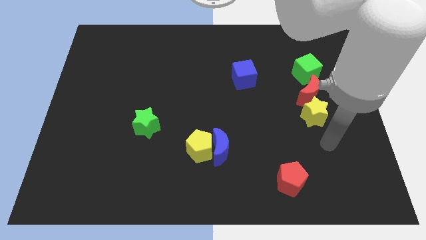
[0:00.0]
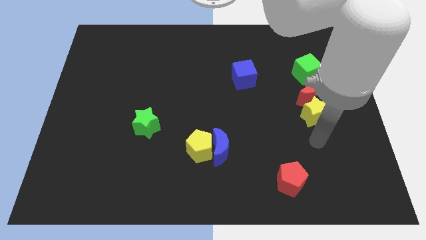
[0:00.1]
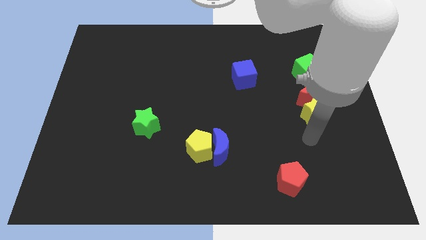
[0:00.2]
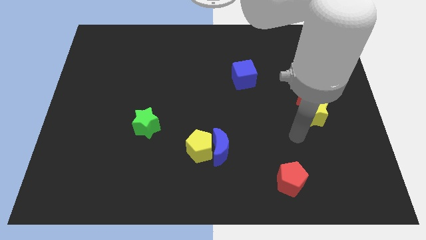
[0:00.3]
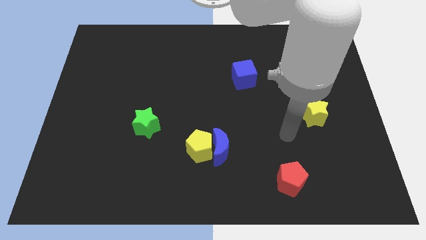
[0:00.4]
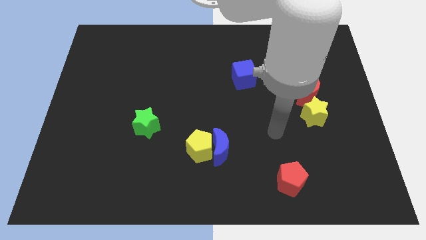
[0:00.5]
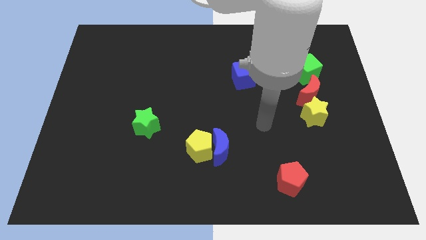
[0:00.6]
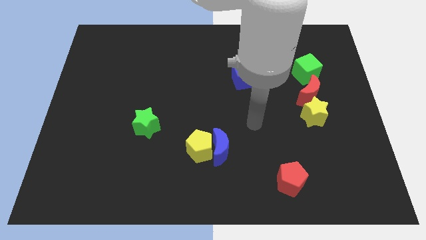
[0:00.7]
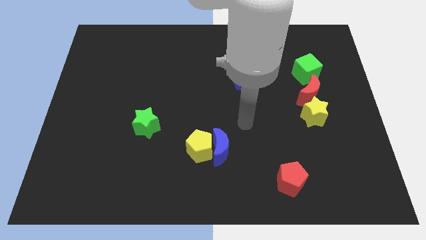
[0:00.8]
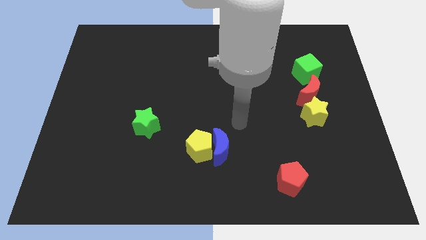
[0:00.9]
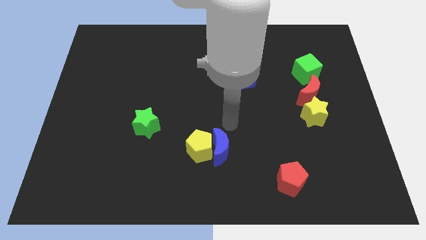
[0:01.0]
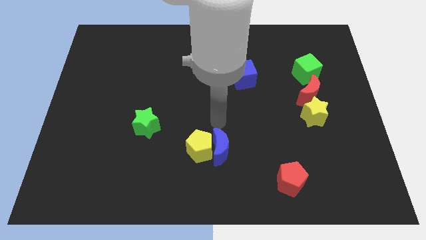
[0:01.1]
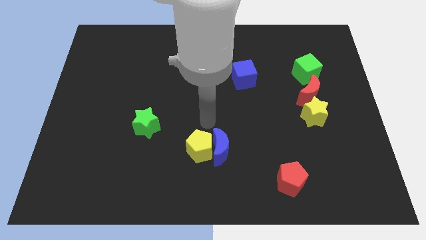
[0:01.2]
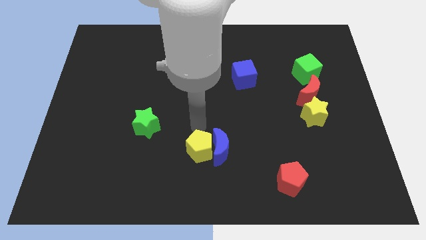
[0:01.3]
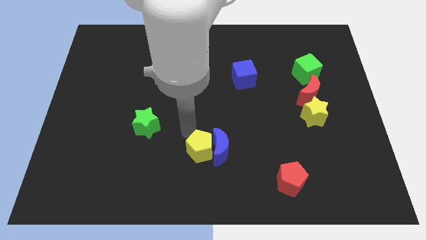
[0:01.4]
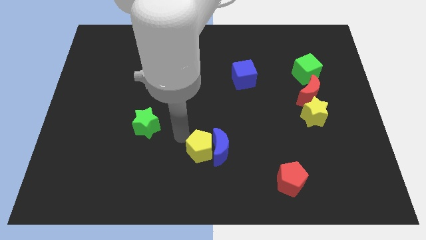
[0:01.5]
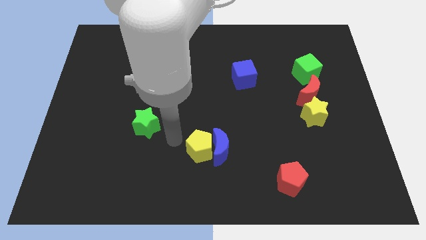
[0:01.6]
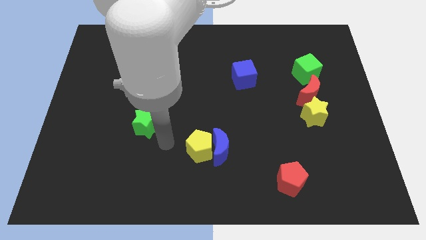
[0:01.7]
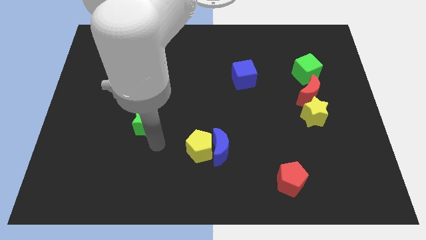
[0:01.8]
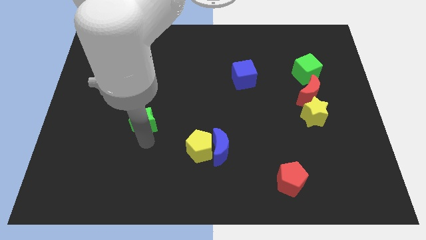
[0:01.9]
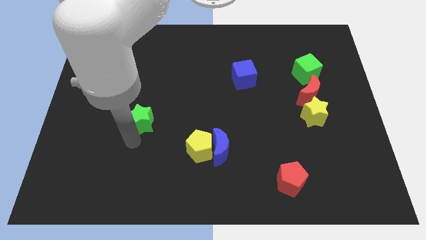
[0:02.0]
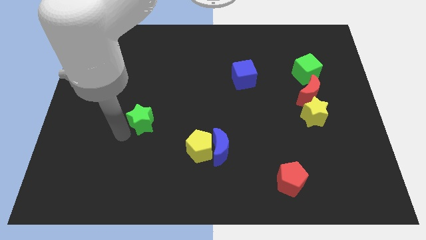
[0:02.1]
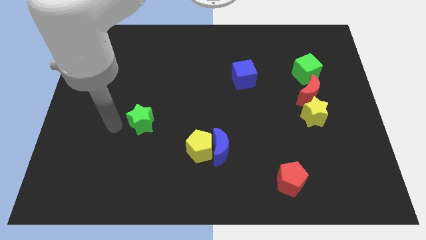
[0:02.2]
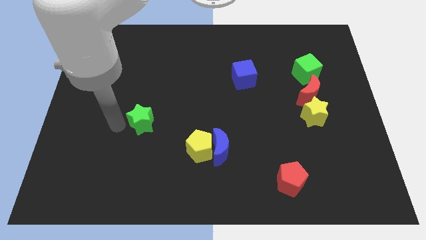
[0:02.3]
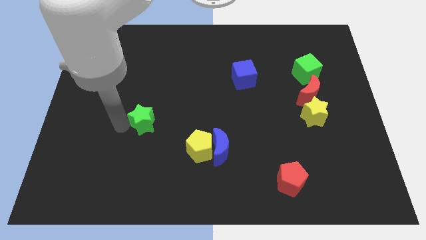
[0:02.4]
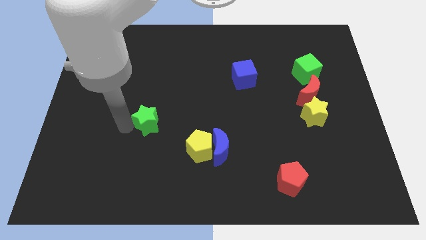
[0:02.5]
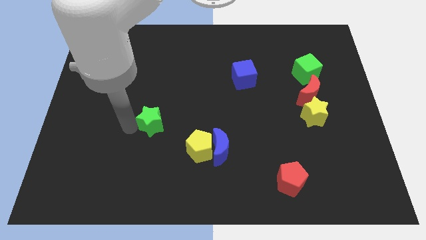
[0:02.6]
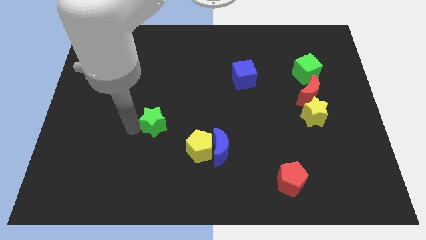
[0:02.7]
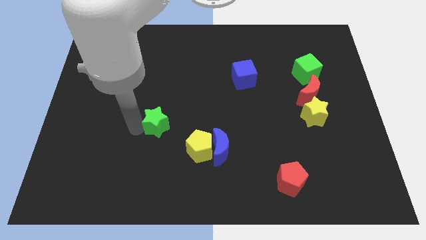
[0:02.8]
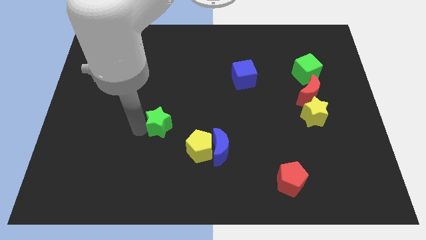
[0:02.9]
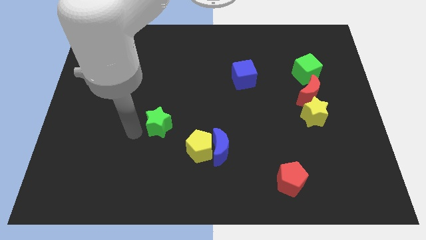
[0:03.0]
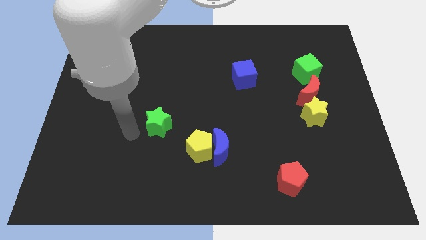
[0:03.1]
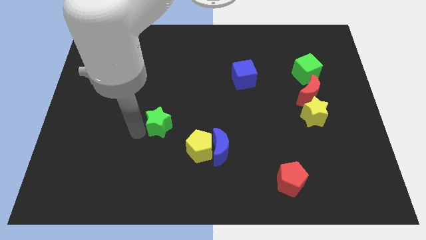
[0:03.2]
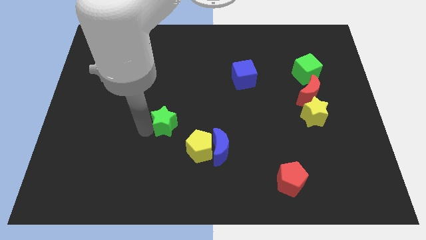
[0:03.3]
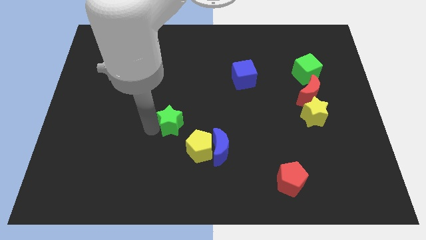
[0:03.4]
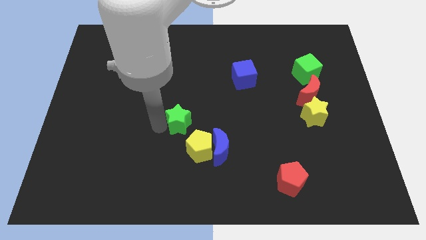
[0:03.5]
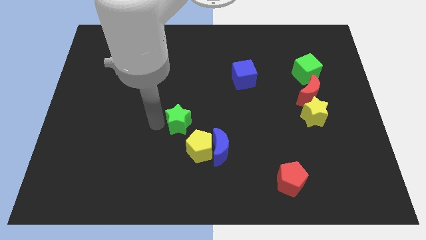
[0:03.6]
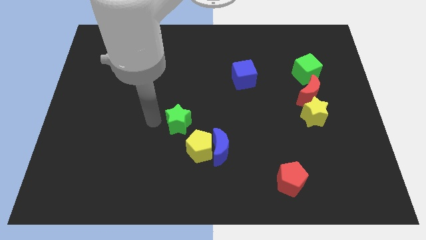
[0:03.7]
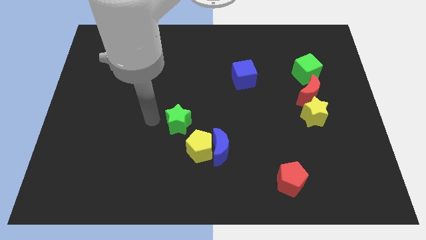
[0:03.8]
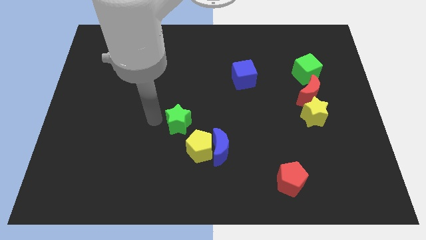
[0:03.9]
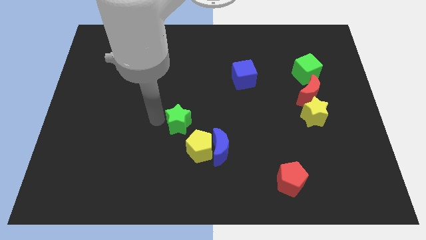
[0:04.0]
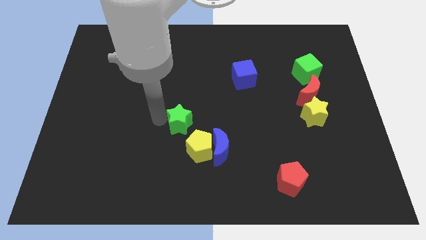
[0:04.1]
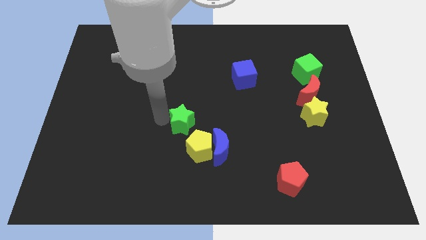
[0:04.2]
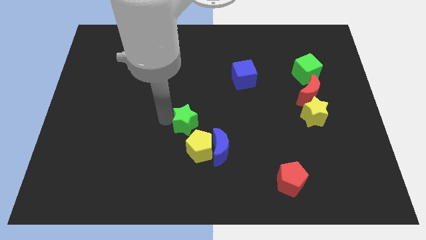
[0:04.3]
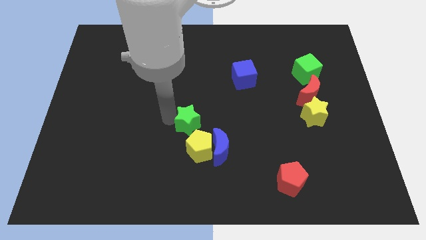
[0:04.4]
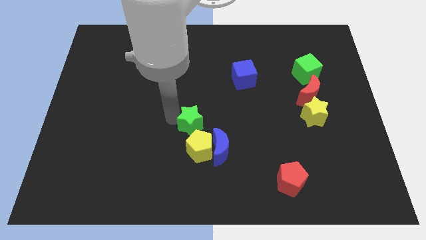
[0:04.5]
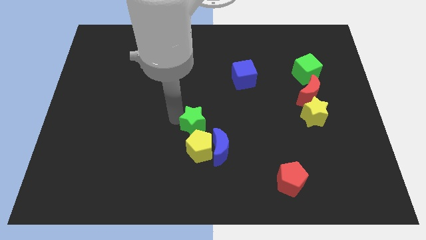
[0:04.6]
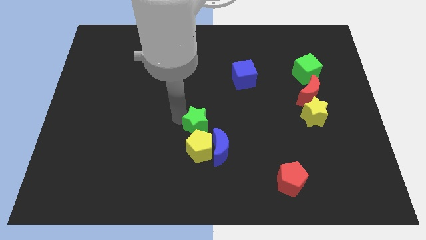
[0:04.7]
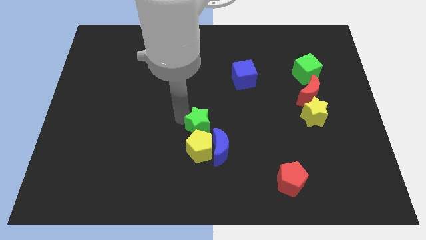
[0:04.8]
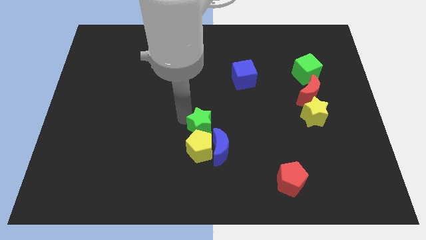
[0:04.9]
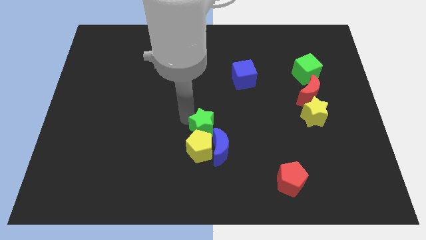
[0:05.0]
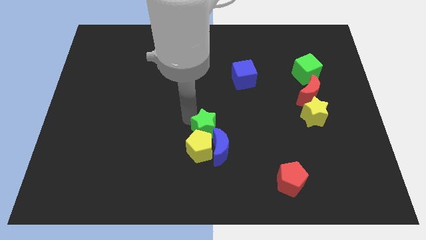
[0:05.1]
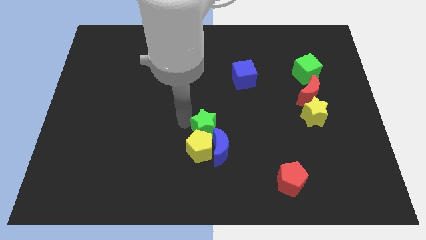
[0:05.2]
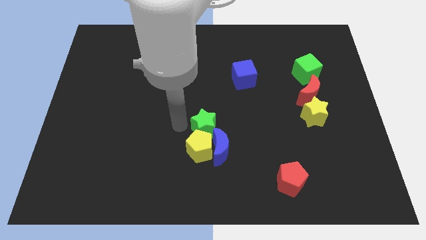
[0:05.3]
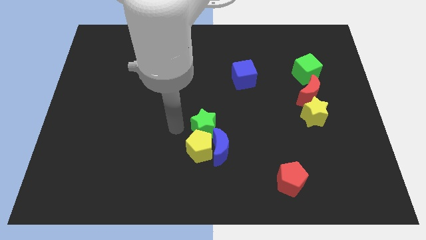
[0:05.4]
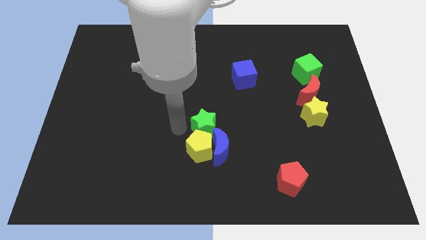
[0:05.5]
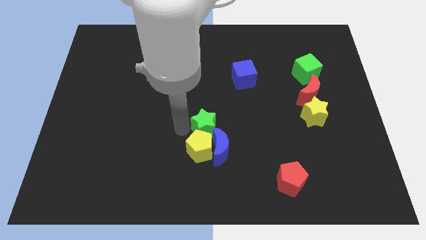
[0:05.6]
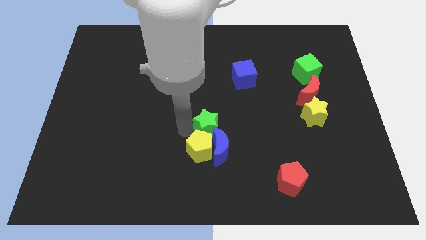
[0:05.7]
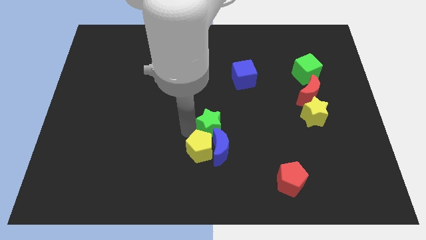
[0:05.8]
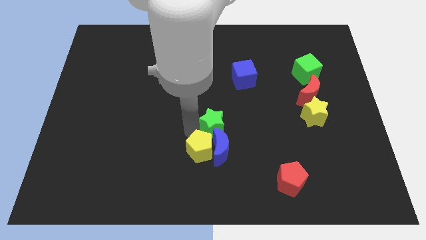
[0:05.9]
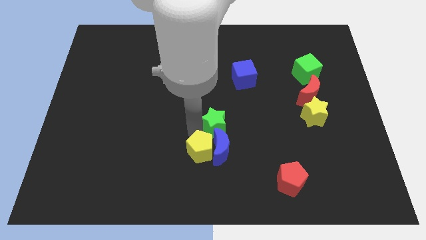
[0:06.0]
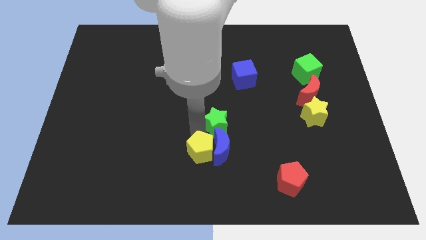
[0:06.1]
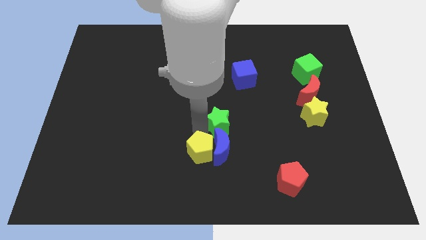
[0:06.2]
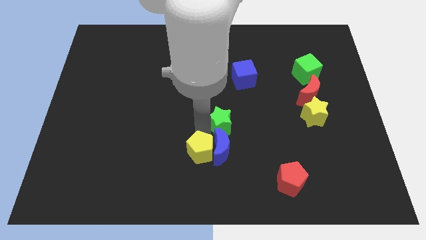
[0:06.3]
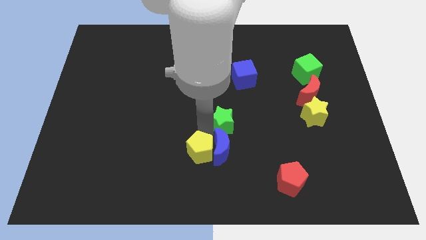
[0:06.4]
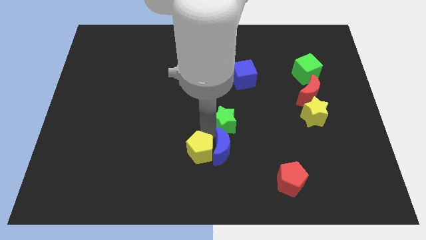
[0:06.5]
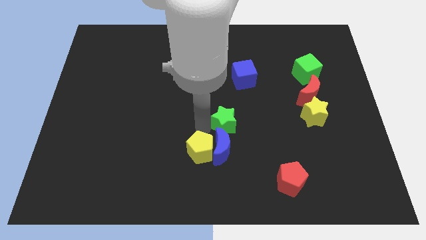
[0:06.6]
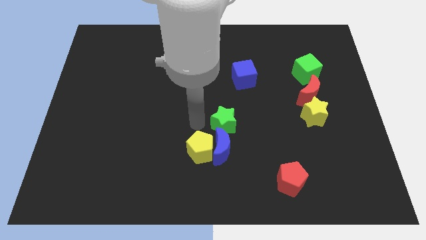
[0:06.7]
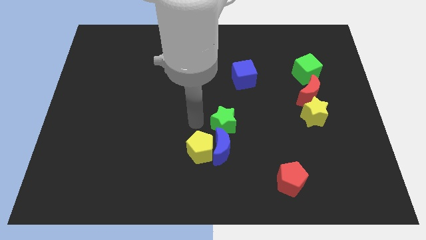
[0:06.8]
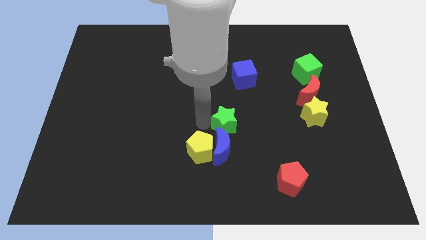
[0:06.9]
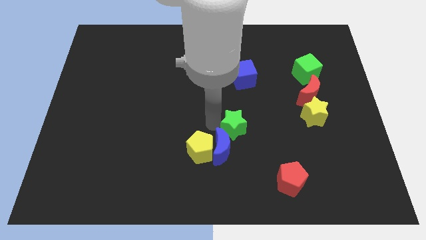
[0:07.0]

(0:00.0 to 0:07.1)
move the green star to the right

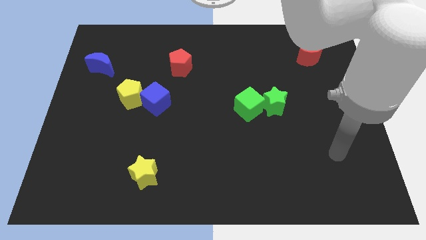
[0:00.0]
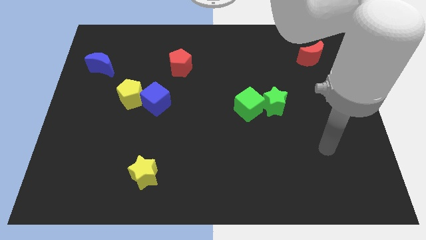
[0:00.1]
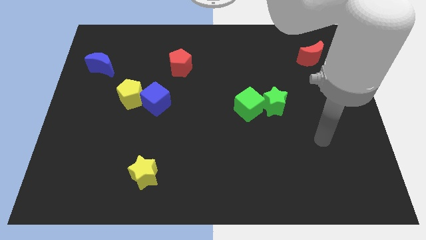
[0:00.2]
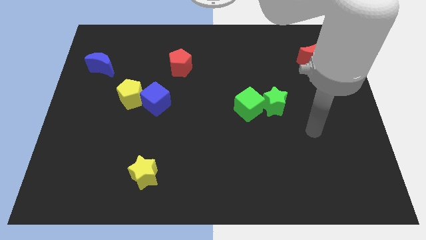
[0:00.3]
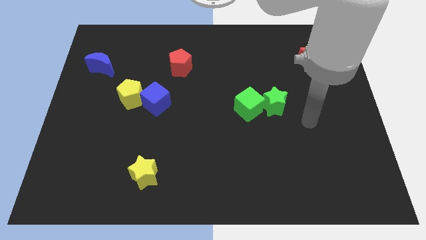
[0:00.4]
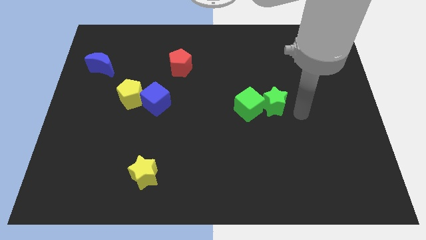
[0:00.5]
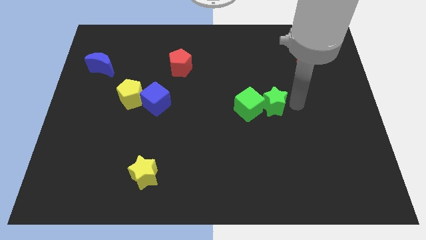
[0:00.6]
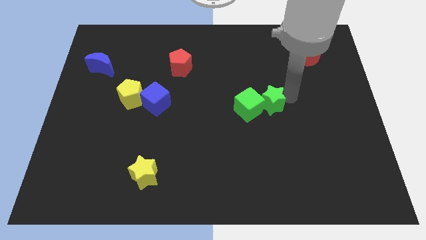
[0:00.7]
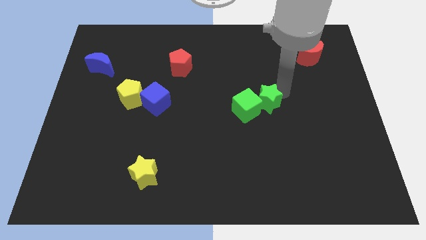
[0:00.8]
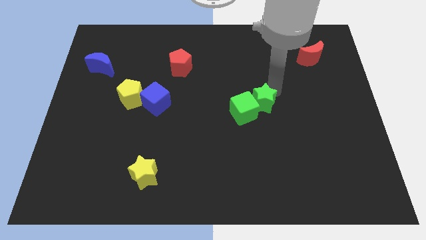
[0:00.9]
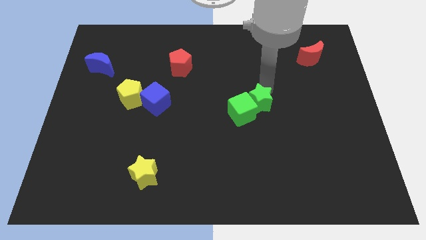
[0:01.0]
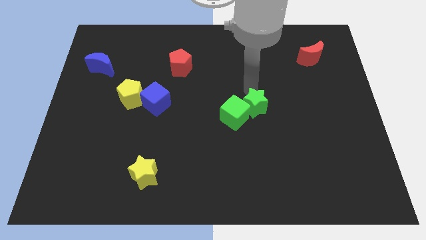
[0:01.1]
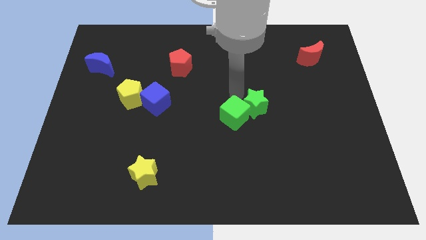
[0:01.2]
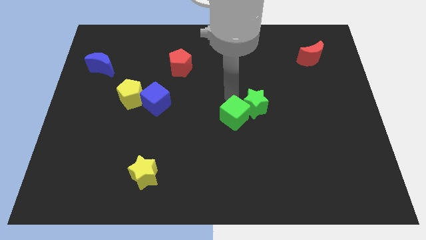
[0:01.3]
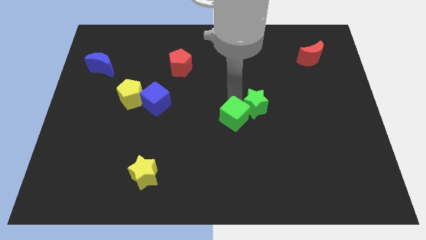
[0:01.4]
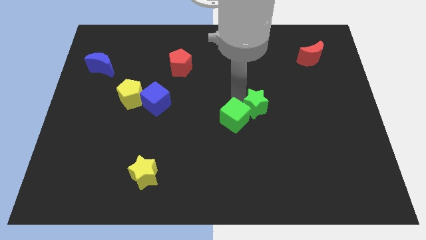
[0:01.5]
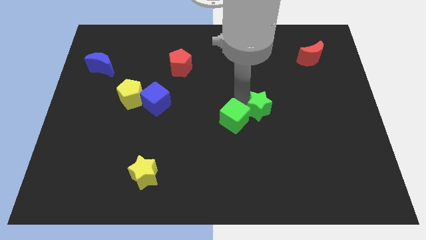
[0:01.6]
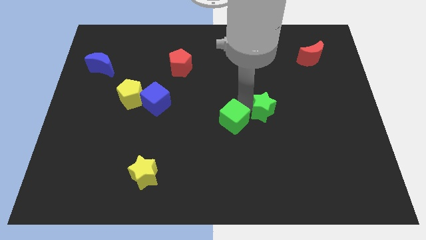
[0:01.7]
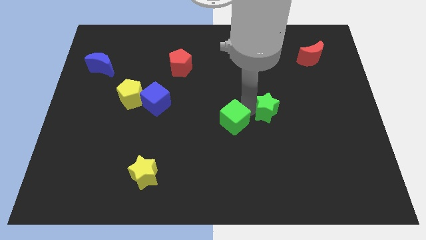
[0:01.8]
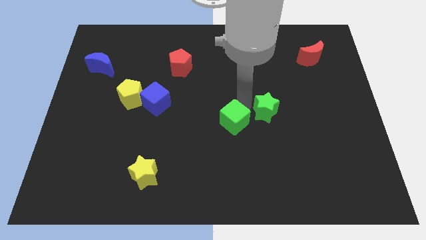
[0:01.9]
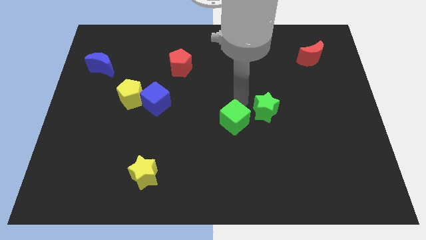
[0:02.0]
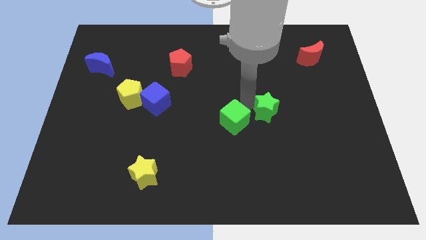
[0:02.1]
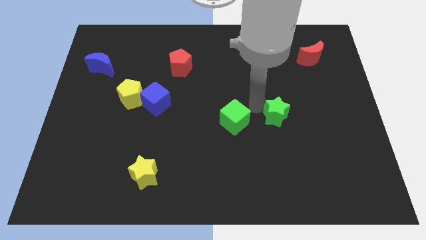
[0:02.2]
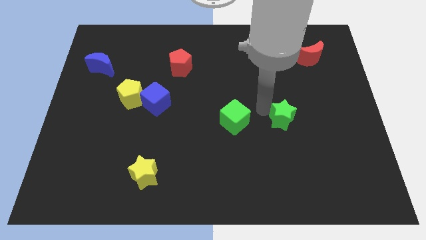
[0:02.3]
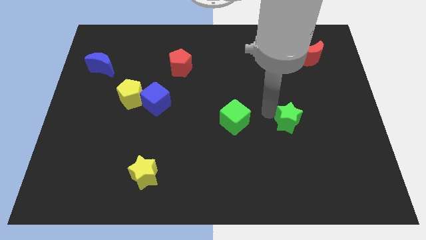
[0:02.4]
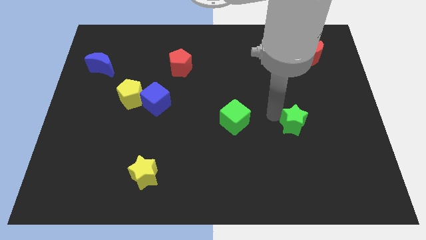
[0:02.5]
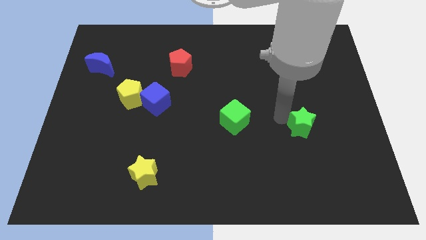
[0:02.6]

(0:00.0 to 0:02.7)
push the green star a little diagonally downwards and right
